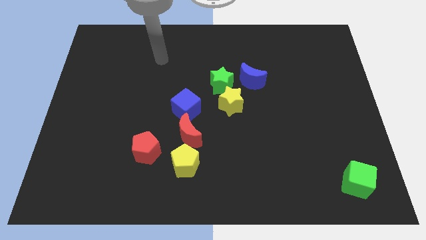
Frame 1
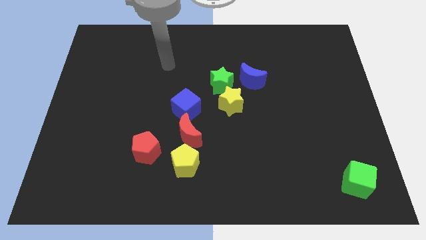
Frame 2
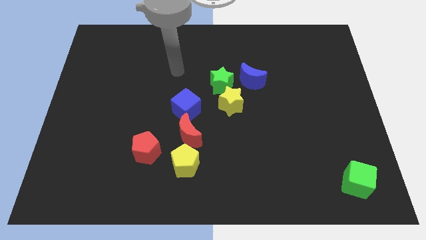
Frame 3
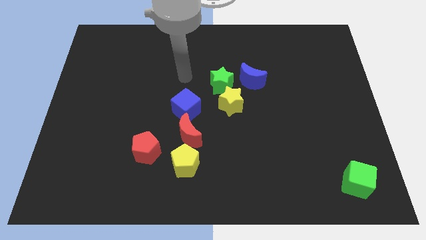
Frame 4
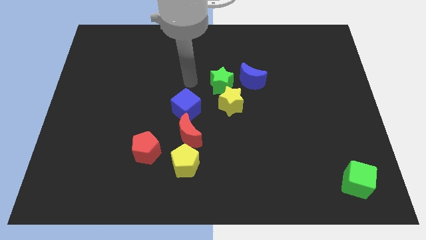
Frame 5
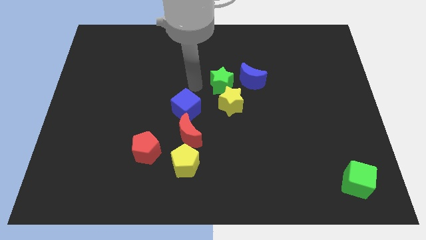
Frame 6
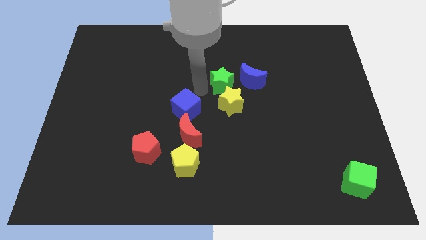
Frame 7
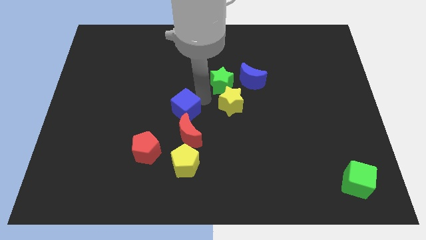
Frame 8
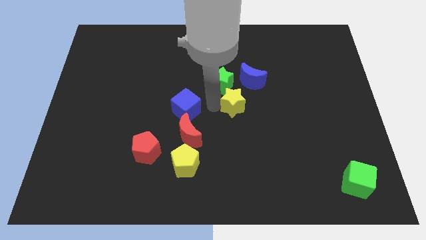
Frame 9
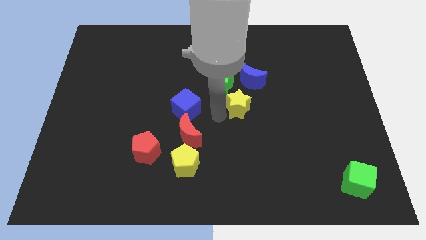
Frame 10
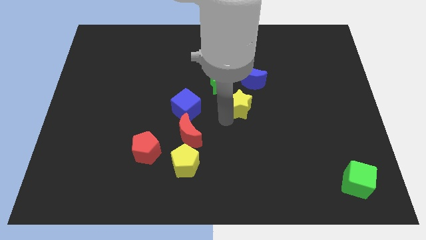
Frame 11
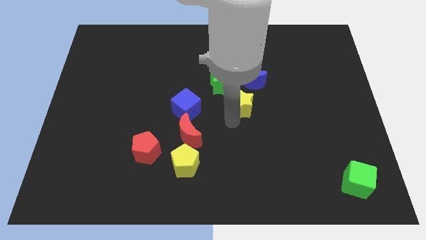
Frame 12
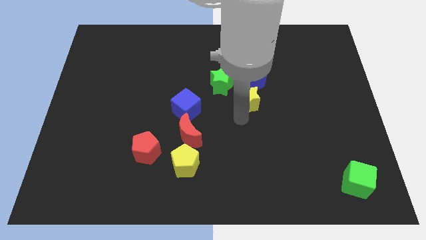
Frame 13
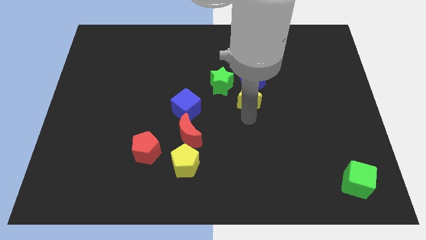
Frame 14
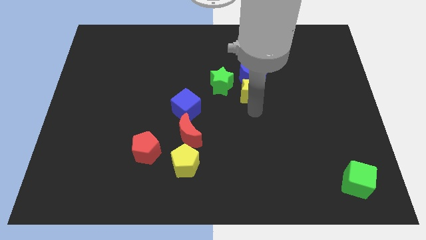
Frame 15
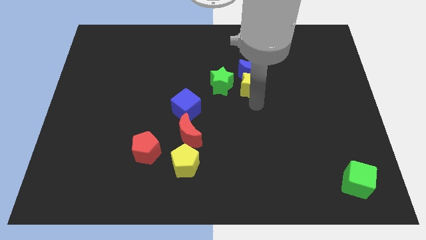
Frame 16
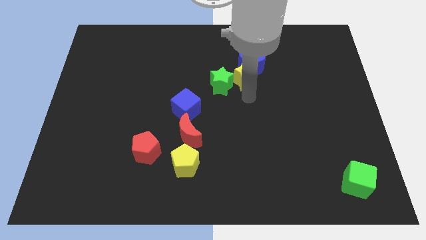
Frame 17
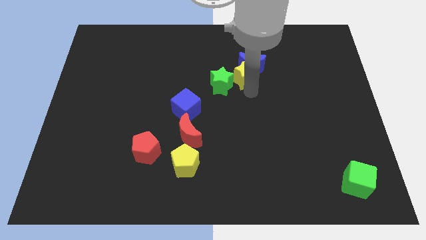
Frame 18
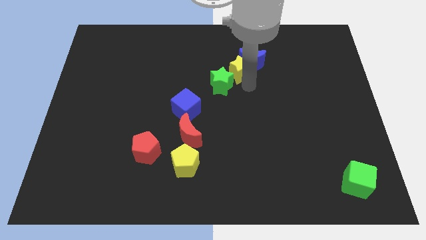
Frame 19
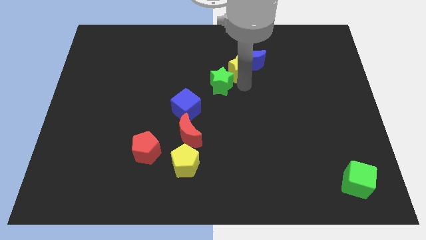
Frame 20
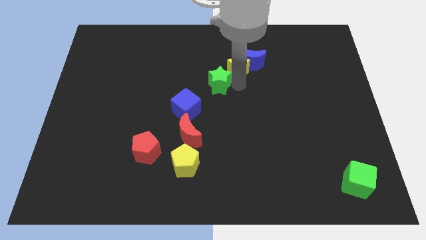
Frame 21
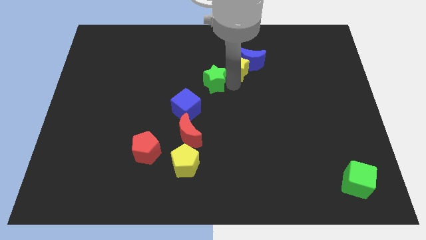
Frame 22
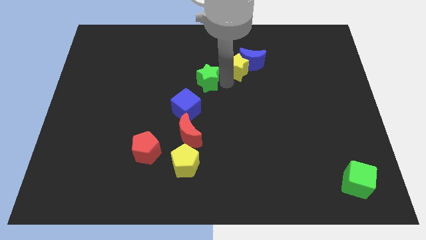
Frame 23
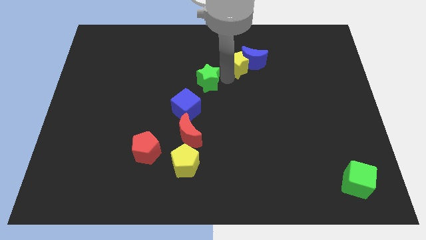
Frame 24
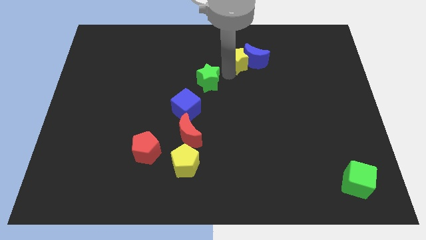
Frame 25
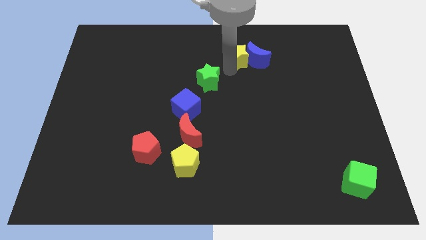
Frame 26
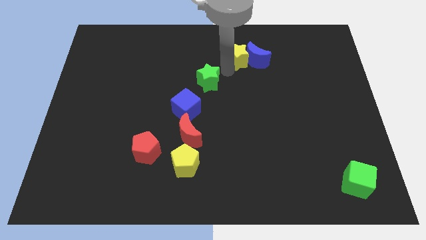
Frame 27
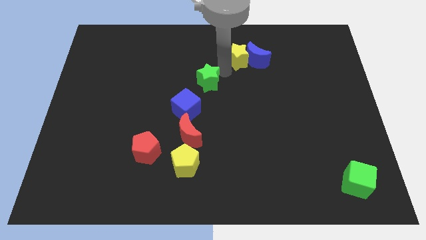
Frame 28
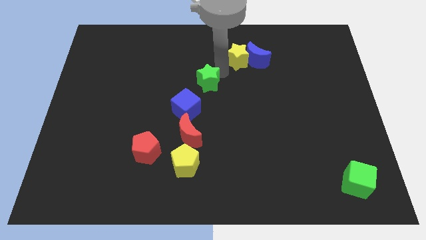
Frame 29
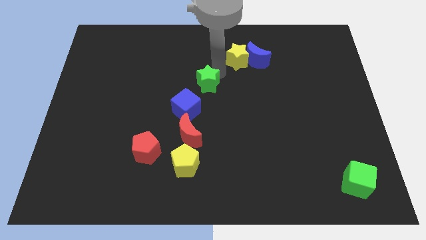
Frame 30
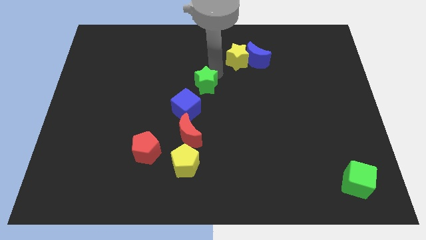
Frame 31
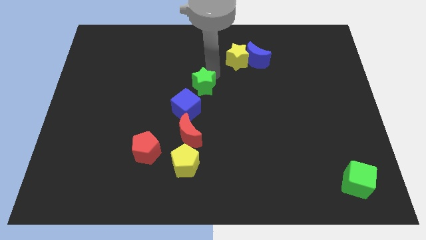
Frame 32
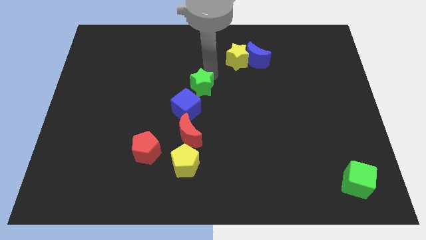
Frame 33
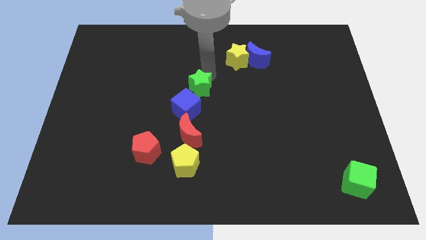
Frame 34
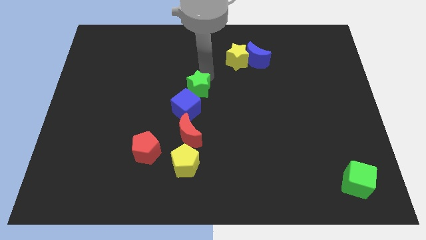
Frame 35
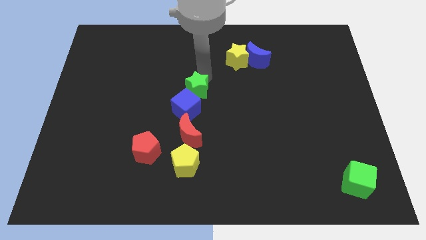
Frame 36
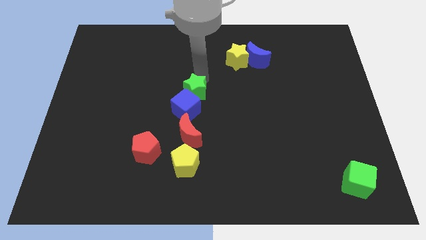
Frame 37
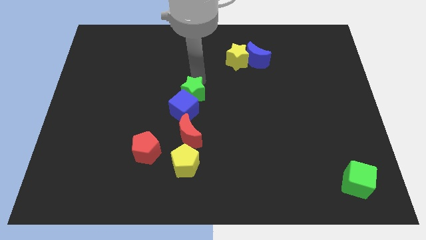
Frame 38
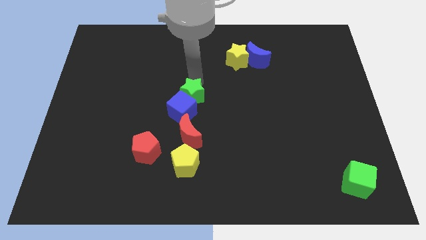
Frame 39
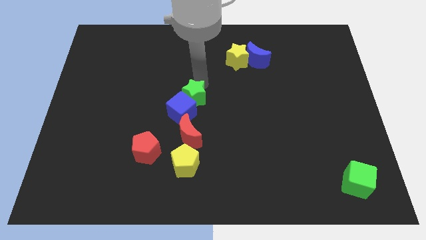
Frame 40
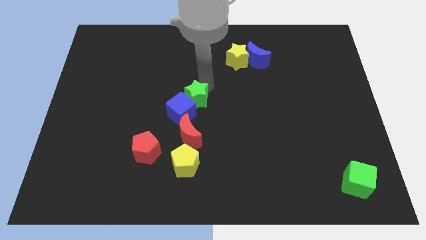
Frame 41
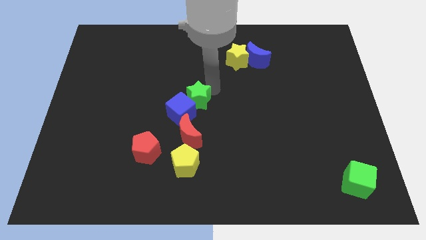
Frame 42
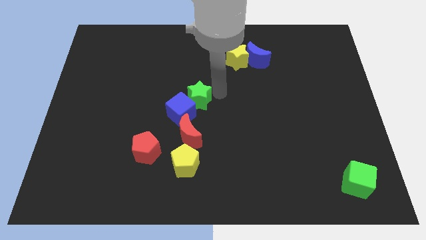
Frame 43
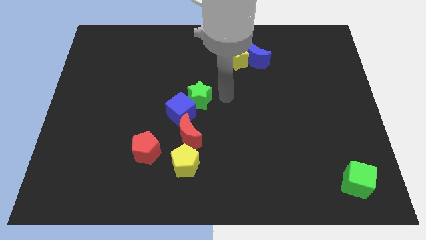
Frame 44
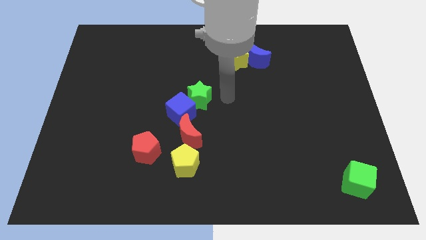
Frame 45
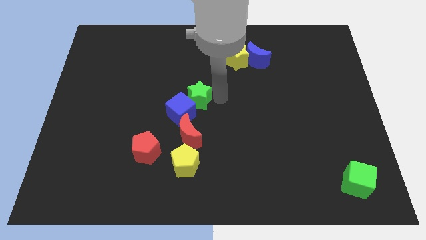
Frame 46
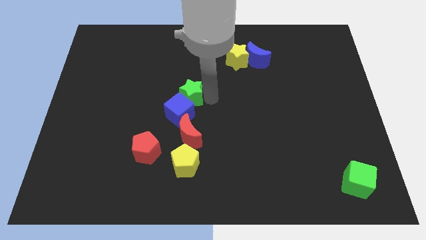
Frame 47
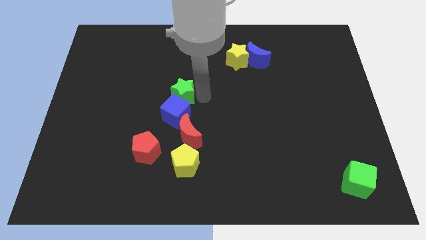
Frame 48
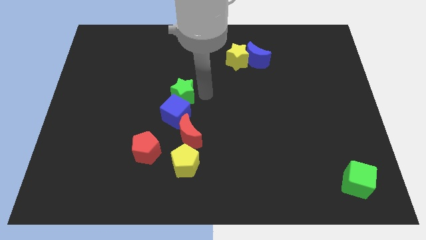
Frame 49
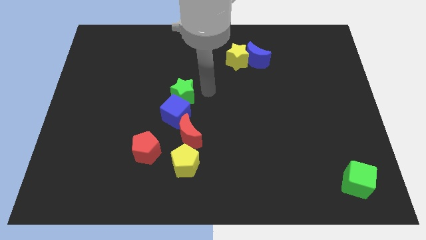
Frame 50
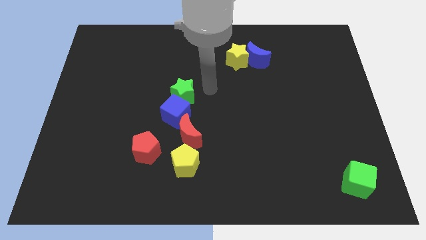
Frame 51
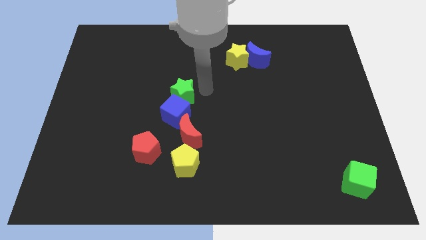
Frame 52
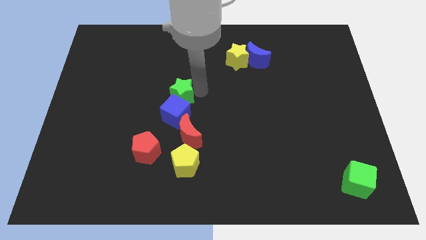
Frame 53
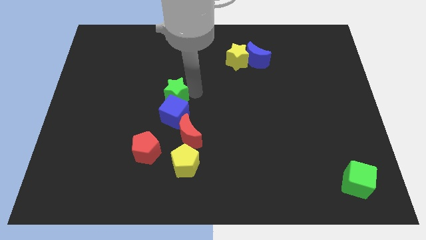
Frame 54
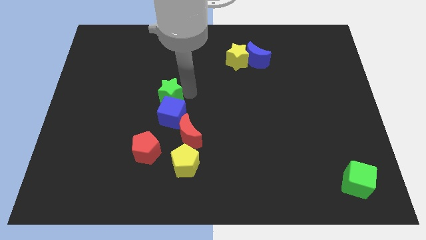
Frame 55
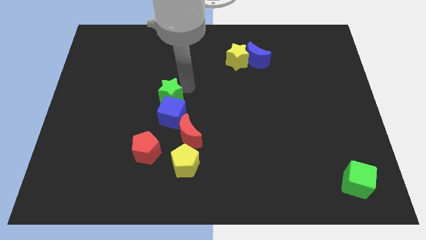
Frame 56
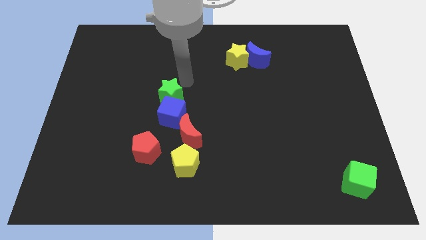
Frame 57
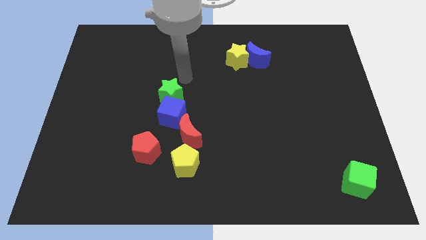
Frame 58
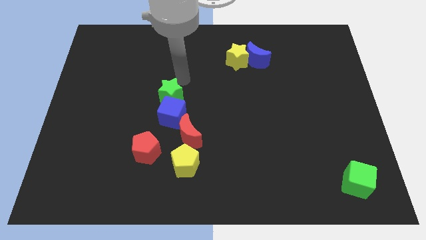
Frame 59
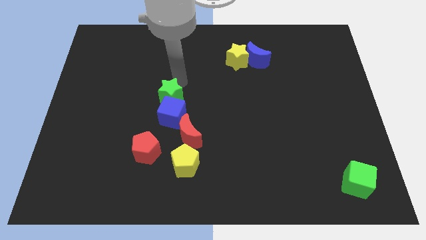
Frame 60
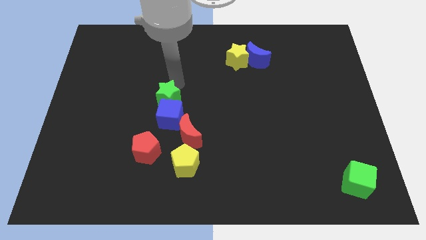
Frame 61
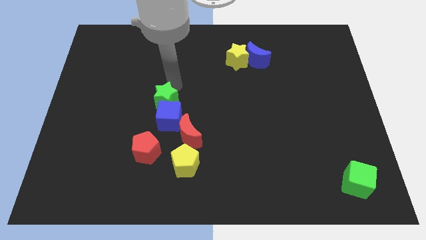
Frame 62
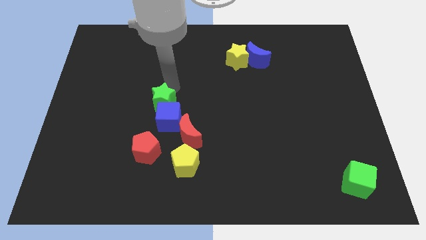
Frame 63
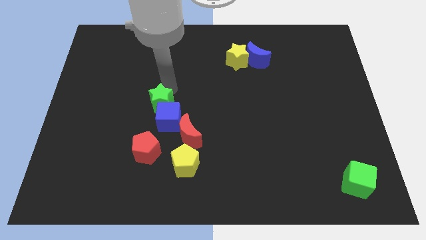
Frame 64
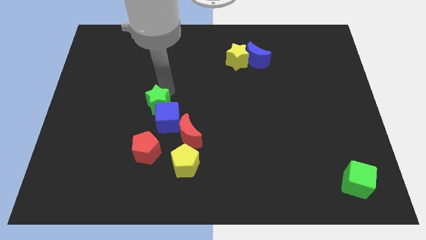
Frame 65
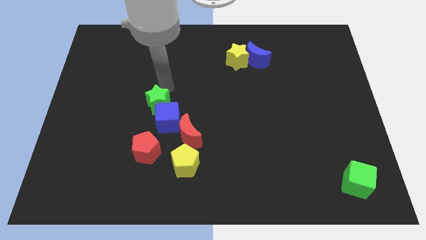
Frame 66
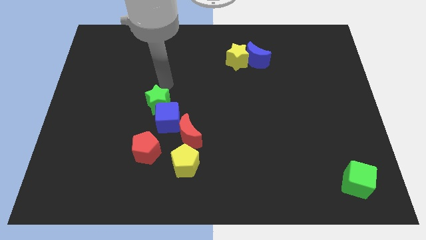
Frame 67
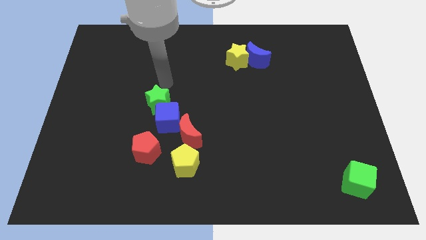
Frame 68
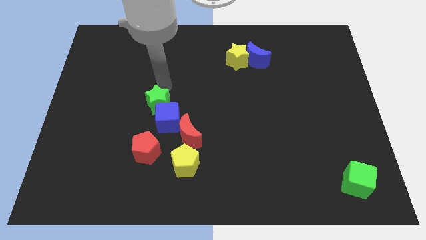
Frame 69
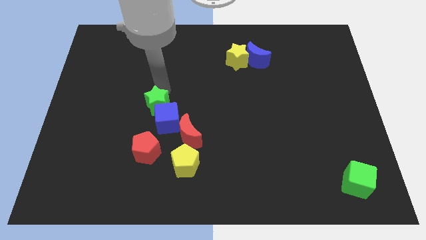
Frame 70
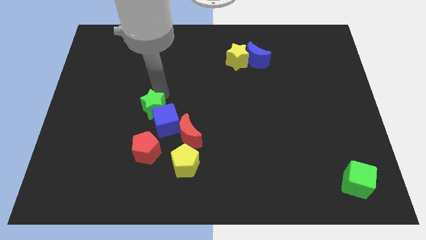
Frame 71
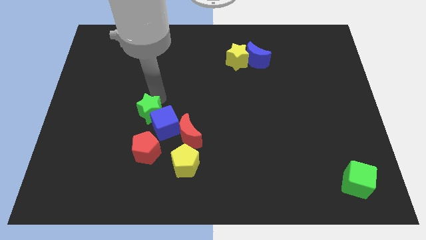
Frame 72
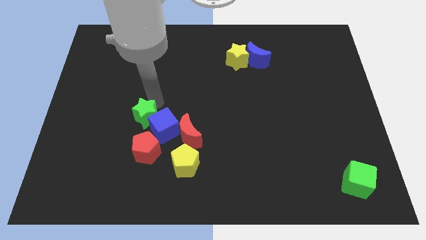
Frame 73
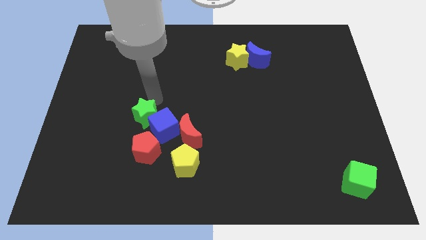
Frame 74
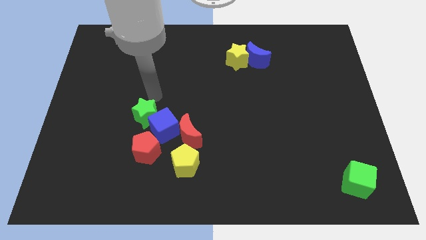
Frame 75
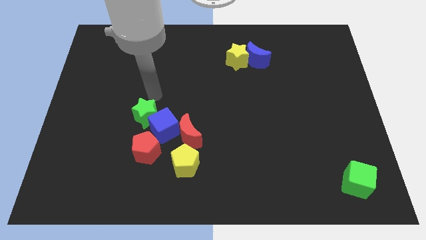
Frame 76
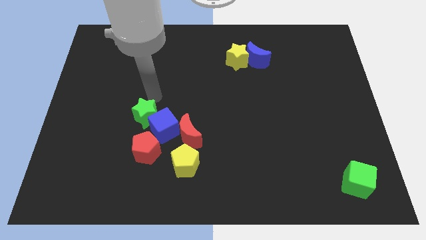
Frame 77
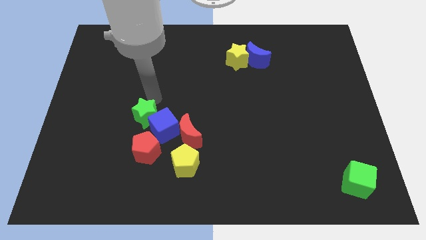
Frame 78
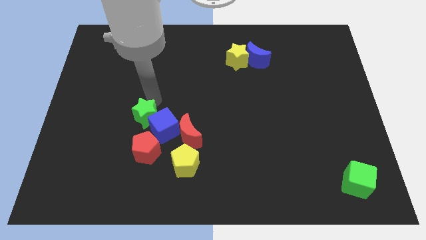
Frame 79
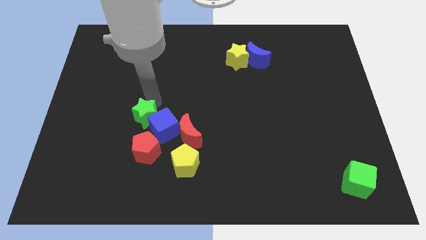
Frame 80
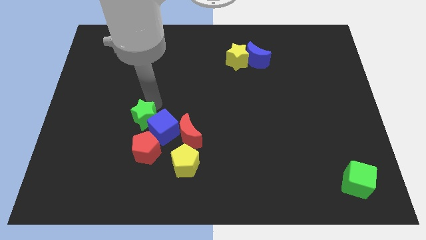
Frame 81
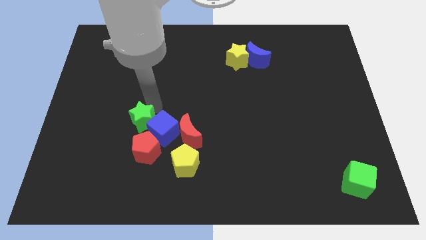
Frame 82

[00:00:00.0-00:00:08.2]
move the green star down and then left
